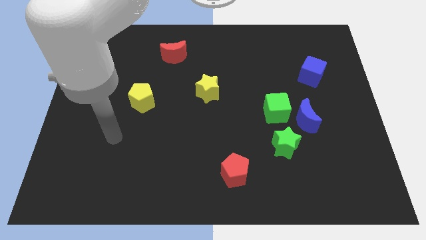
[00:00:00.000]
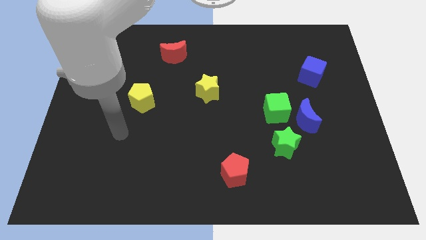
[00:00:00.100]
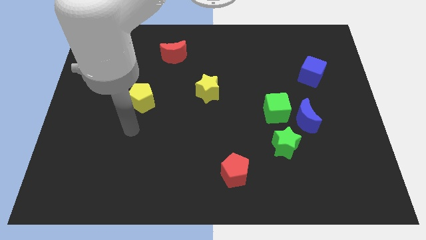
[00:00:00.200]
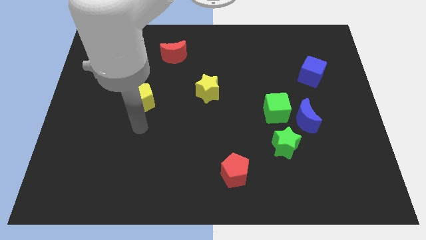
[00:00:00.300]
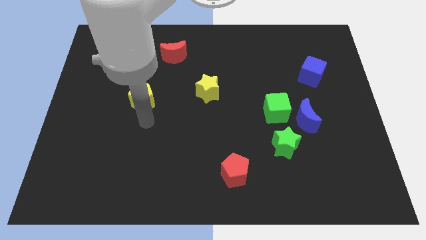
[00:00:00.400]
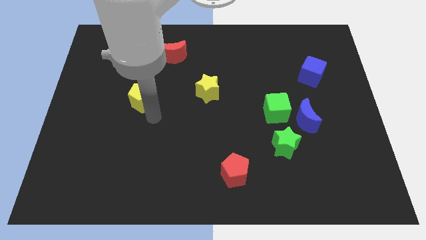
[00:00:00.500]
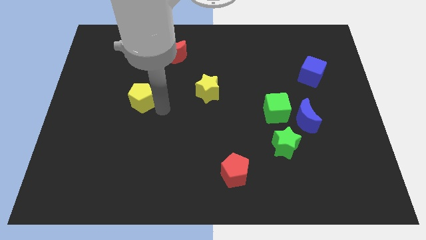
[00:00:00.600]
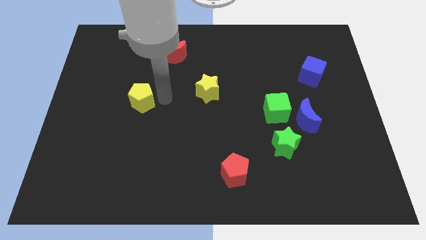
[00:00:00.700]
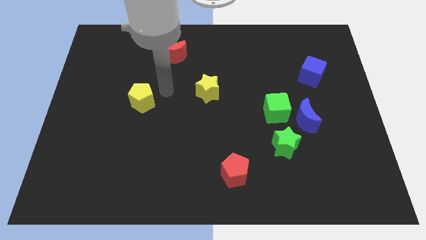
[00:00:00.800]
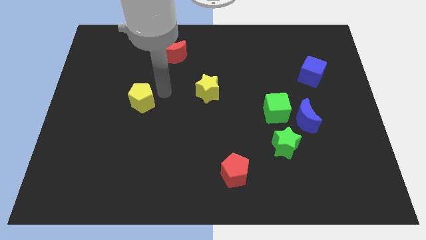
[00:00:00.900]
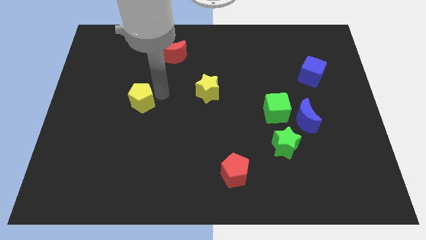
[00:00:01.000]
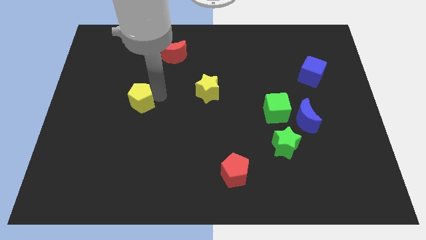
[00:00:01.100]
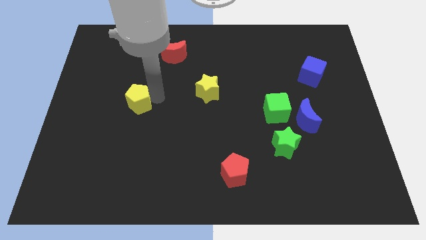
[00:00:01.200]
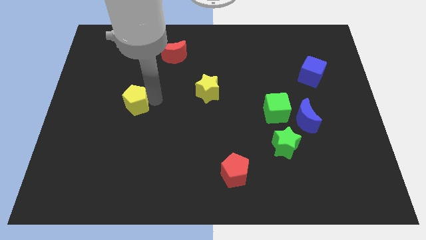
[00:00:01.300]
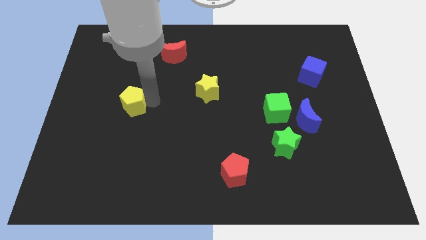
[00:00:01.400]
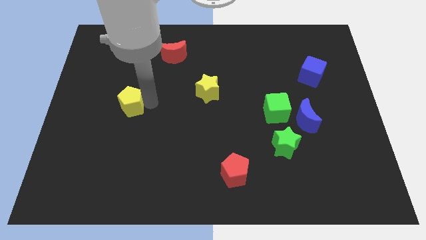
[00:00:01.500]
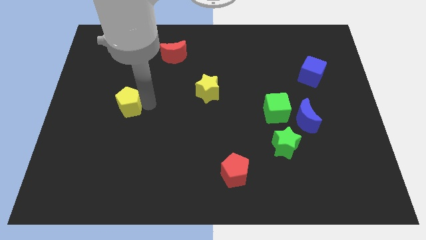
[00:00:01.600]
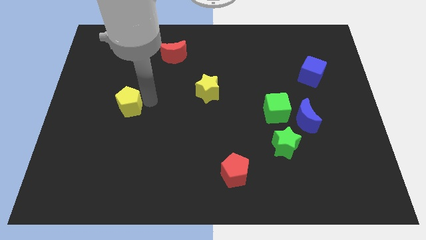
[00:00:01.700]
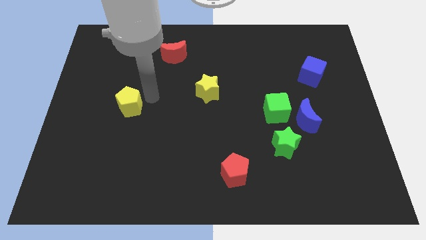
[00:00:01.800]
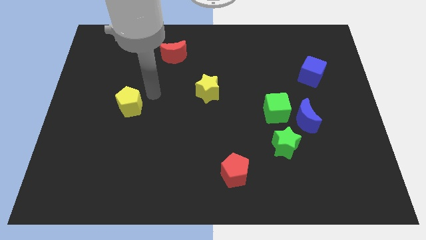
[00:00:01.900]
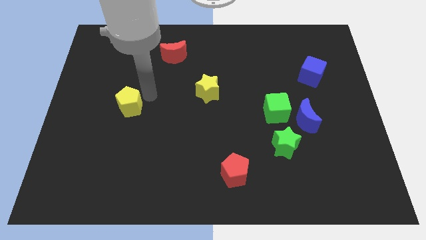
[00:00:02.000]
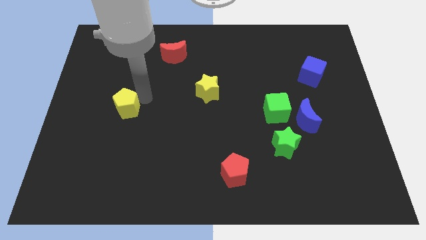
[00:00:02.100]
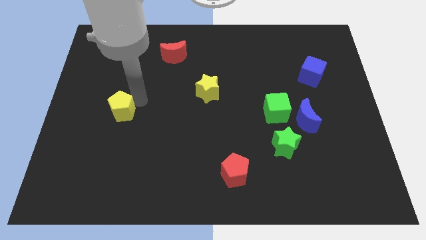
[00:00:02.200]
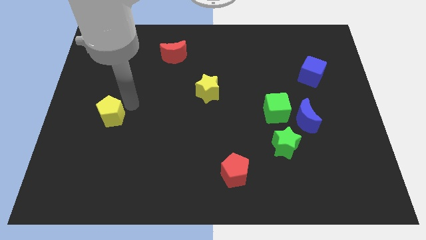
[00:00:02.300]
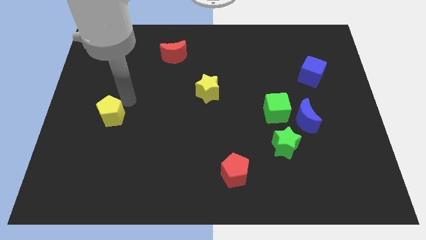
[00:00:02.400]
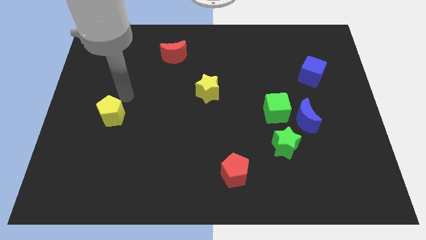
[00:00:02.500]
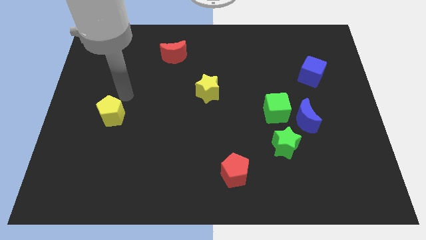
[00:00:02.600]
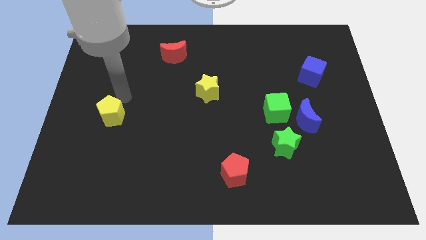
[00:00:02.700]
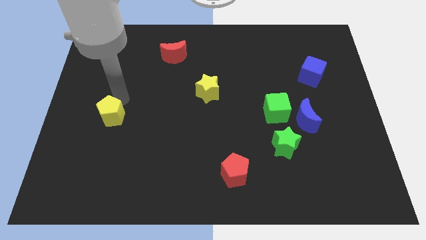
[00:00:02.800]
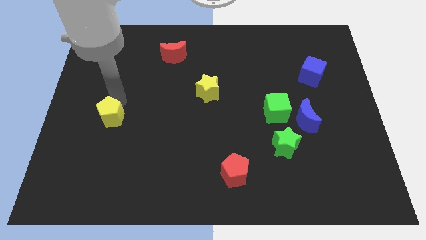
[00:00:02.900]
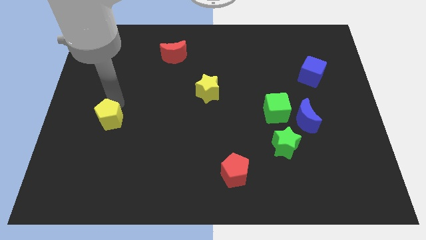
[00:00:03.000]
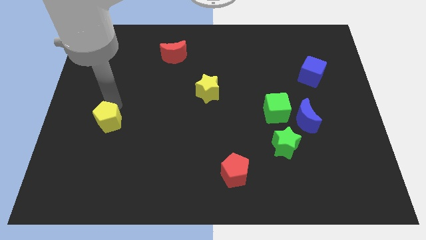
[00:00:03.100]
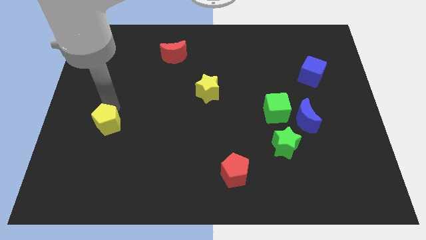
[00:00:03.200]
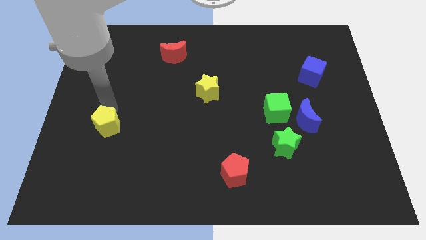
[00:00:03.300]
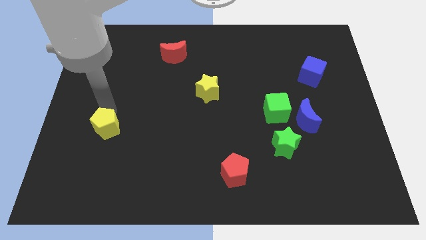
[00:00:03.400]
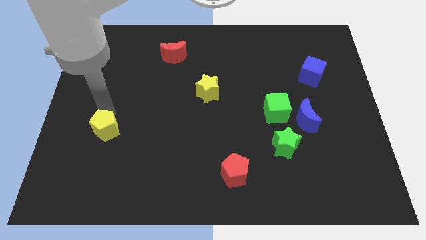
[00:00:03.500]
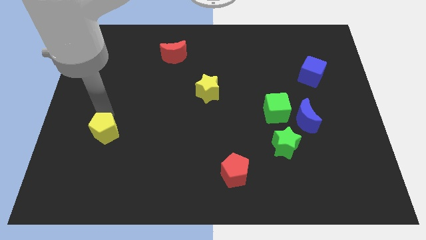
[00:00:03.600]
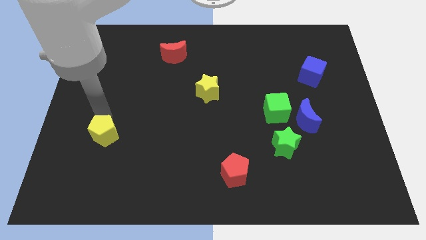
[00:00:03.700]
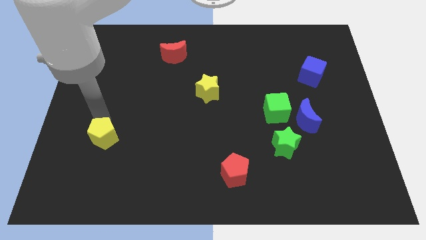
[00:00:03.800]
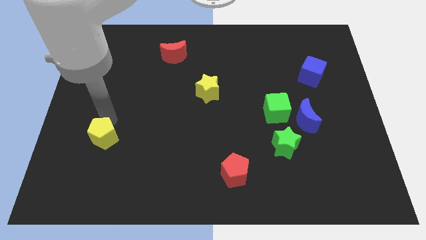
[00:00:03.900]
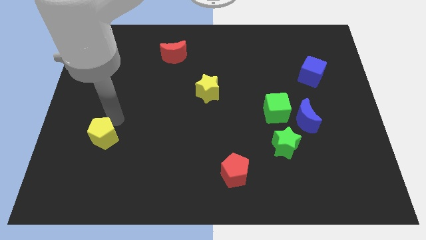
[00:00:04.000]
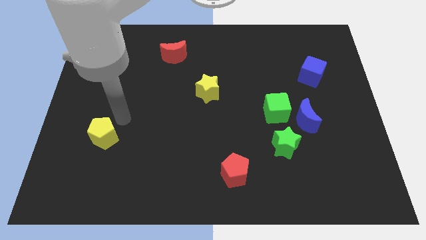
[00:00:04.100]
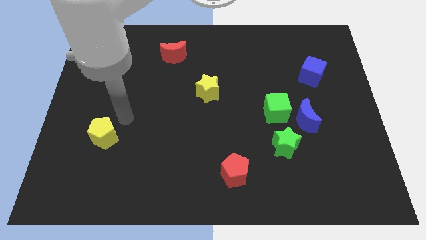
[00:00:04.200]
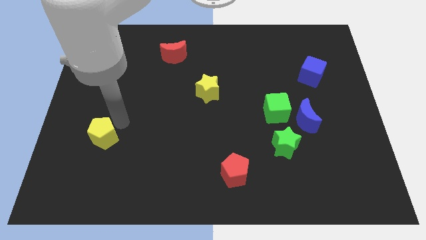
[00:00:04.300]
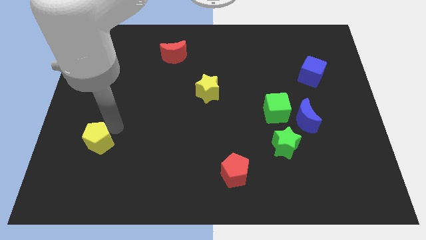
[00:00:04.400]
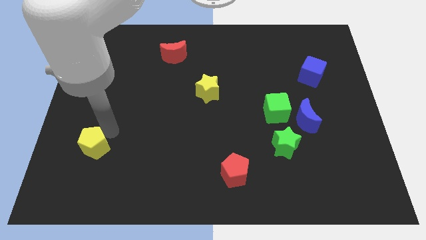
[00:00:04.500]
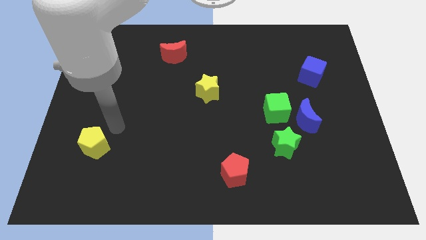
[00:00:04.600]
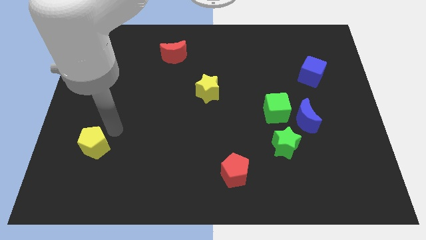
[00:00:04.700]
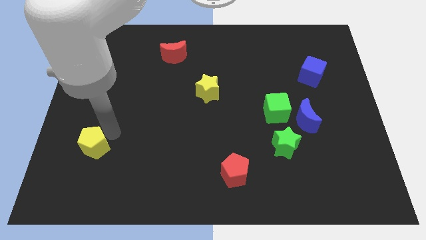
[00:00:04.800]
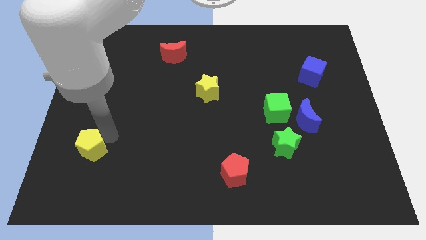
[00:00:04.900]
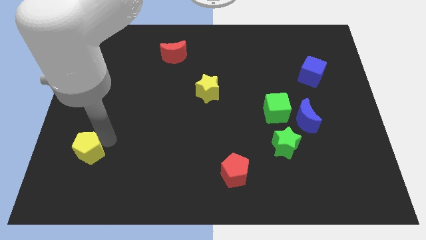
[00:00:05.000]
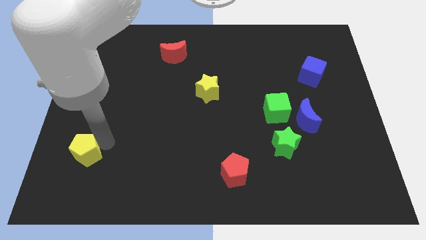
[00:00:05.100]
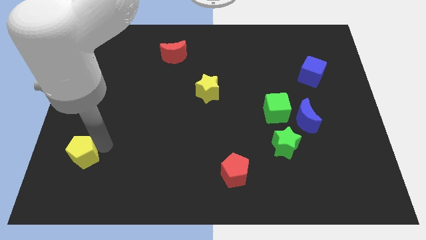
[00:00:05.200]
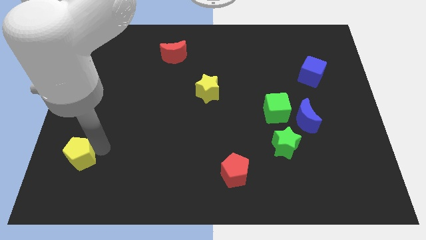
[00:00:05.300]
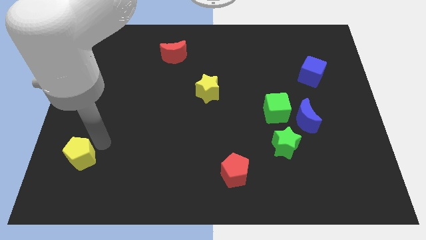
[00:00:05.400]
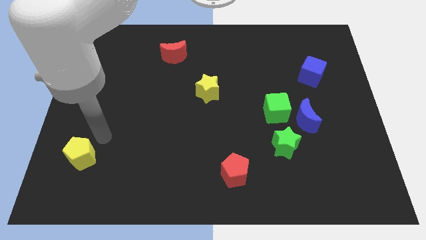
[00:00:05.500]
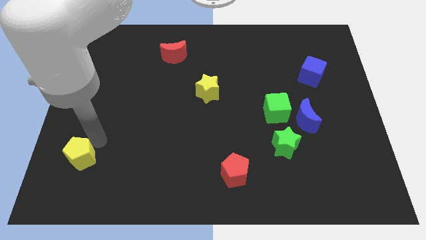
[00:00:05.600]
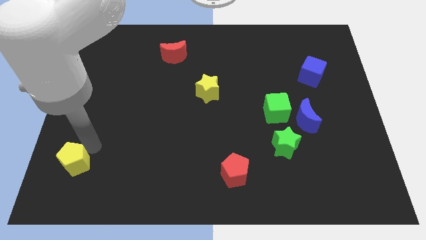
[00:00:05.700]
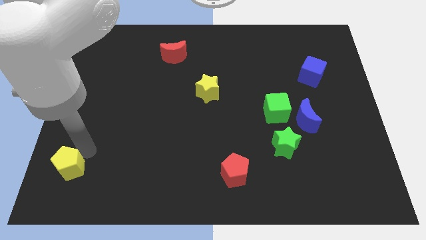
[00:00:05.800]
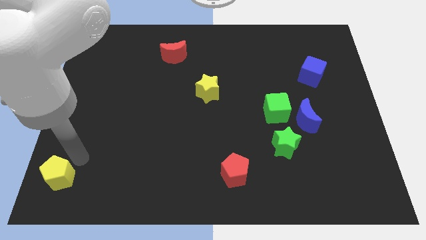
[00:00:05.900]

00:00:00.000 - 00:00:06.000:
slide the yellow pentagon to the bottom left corner
